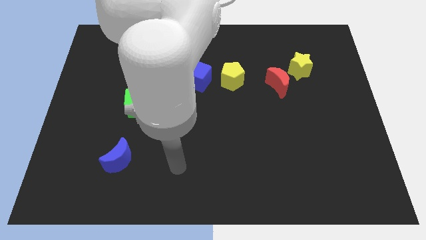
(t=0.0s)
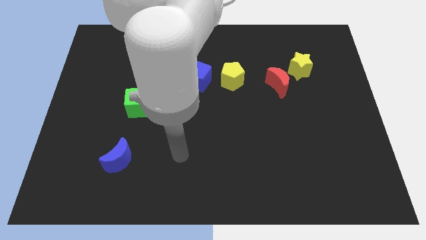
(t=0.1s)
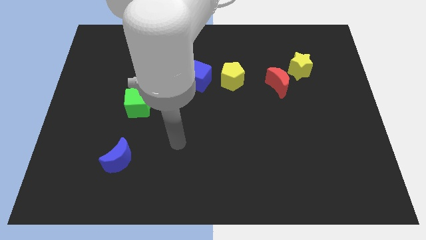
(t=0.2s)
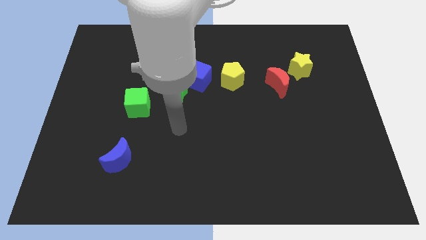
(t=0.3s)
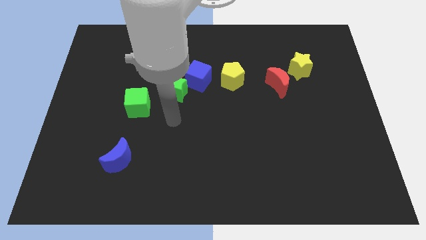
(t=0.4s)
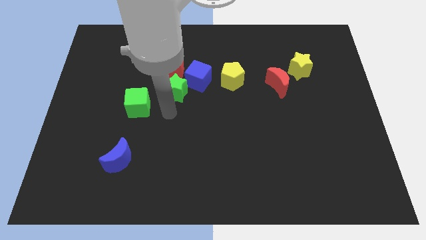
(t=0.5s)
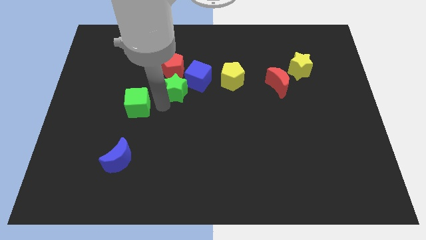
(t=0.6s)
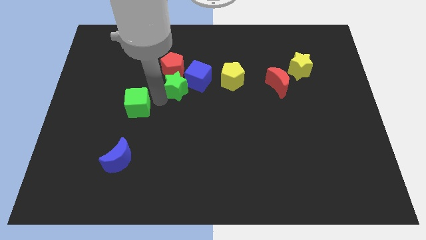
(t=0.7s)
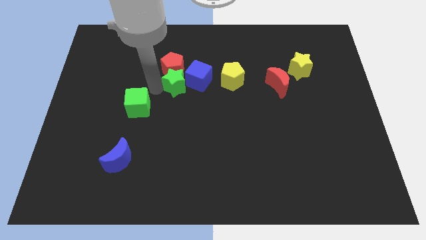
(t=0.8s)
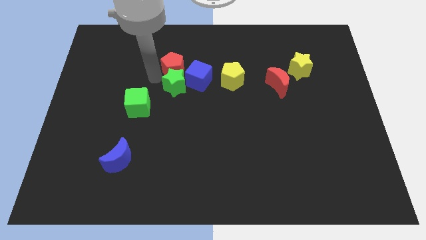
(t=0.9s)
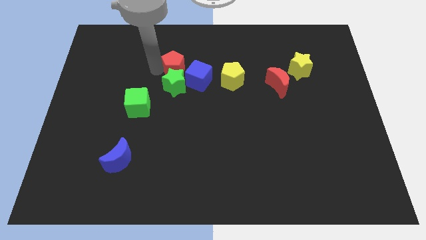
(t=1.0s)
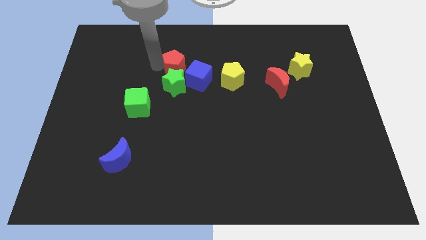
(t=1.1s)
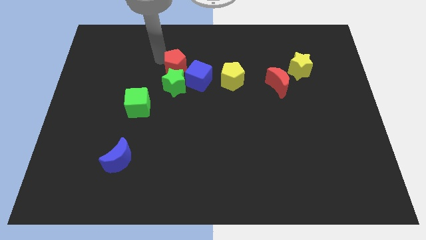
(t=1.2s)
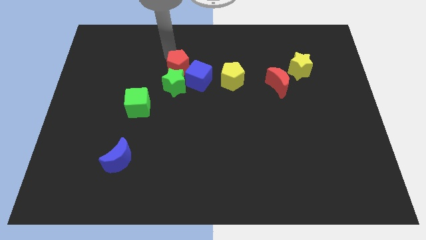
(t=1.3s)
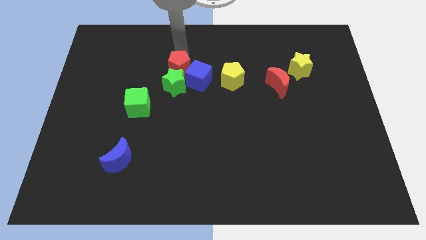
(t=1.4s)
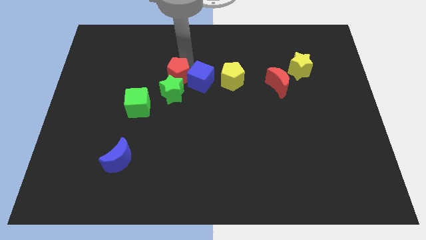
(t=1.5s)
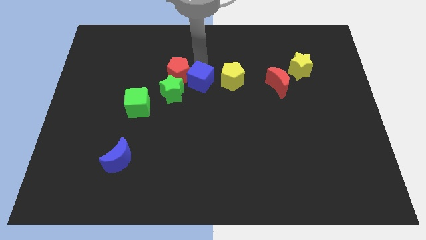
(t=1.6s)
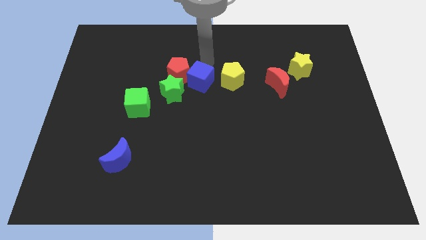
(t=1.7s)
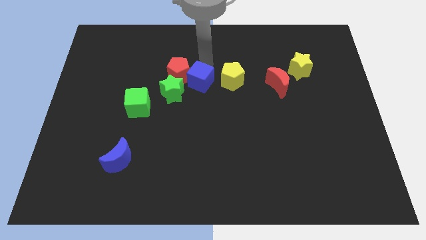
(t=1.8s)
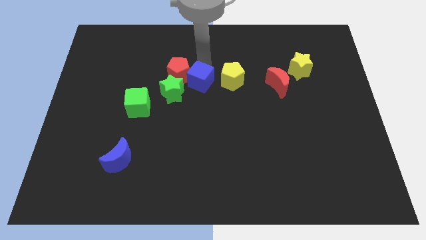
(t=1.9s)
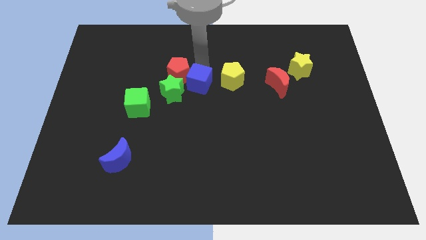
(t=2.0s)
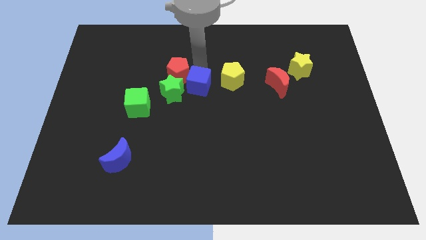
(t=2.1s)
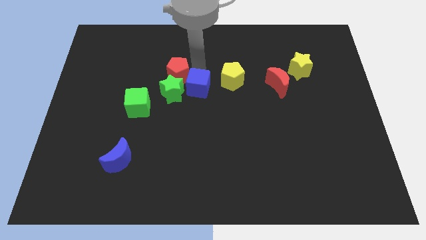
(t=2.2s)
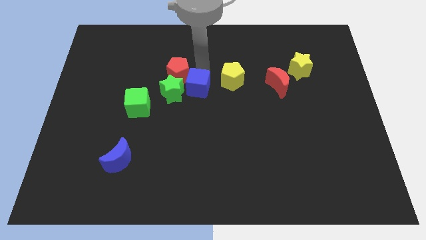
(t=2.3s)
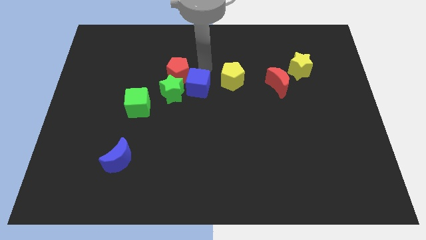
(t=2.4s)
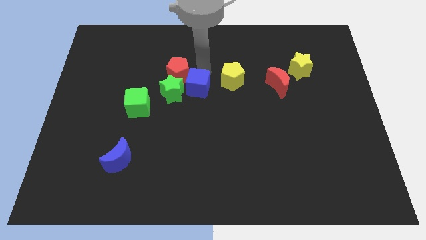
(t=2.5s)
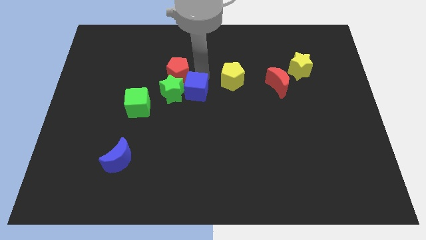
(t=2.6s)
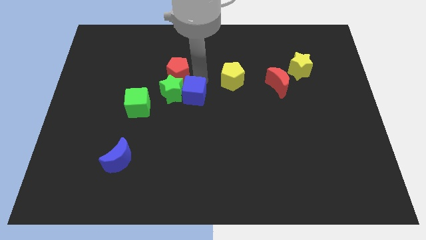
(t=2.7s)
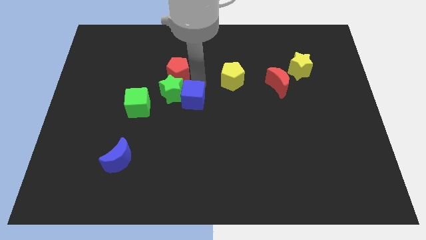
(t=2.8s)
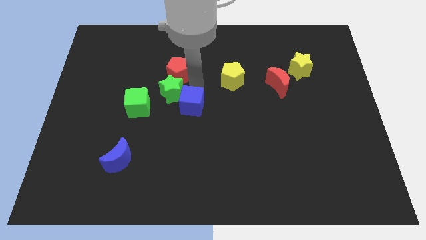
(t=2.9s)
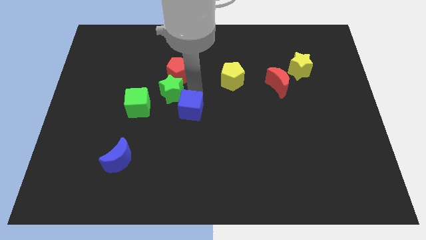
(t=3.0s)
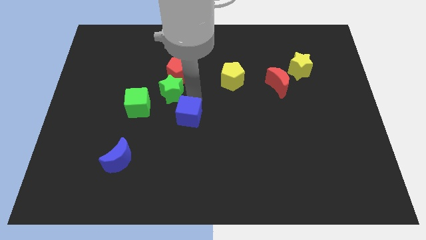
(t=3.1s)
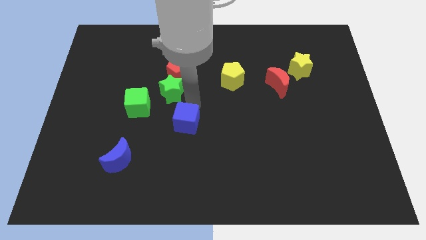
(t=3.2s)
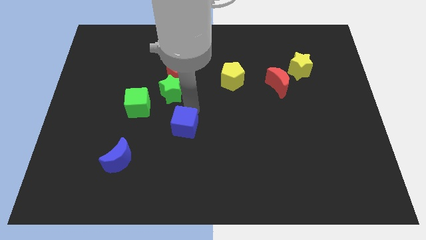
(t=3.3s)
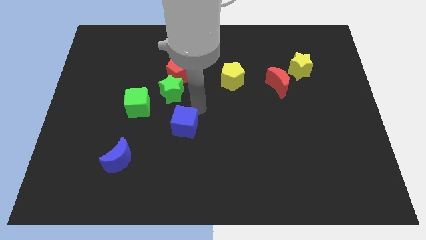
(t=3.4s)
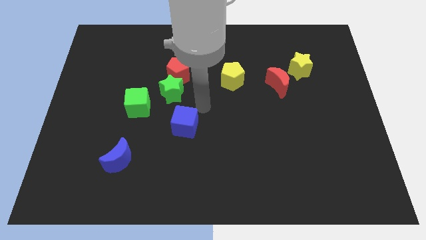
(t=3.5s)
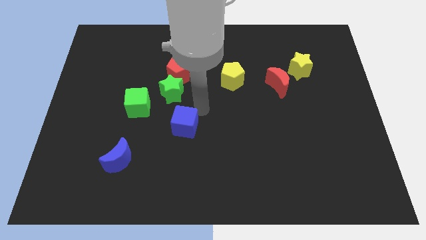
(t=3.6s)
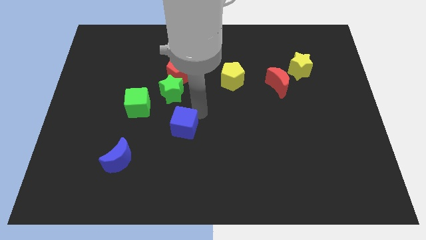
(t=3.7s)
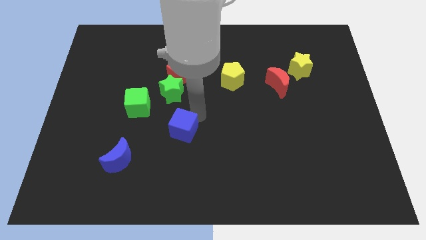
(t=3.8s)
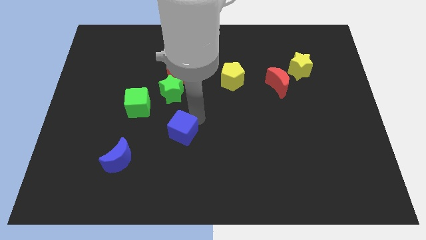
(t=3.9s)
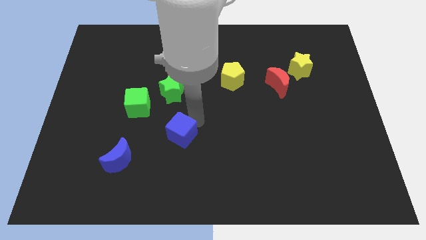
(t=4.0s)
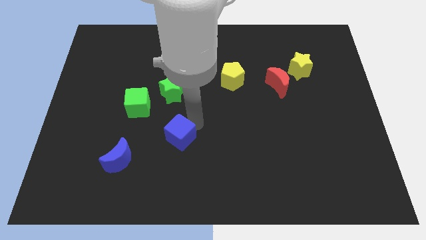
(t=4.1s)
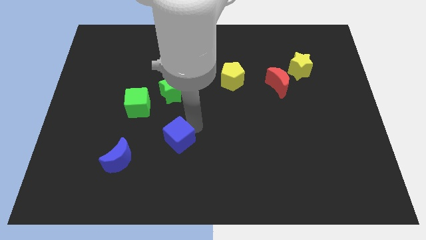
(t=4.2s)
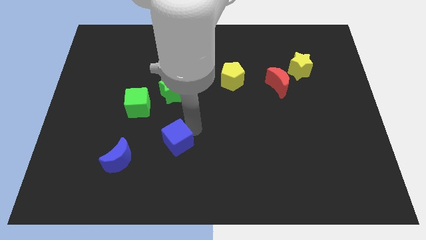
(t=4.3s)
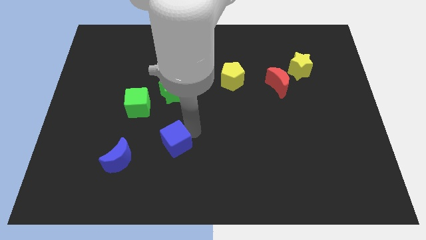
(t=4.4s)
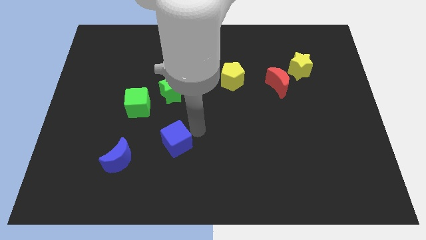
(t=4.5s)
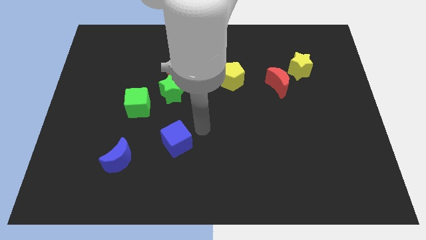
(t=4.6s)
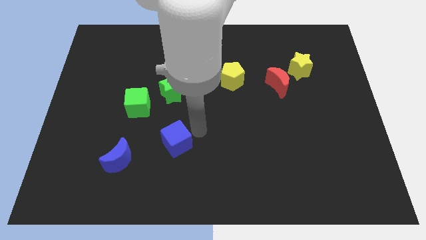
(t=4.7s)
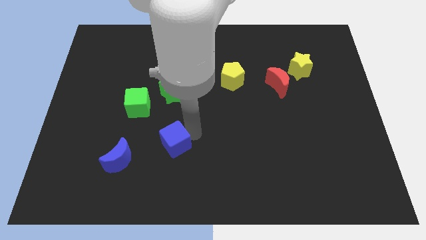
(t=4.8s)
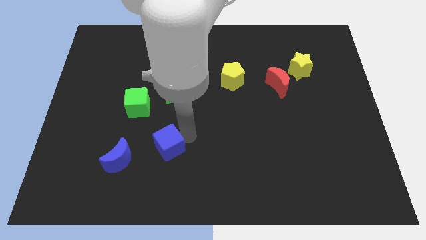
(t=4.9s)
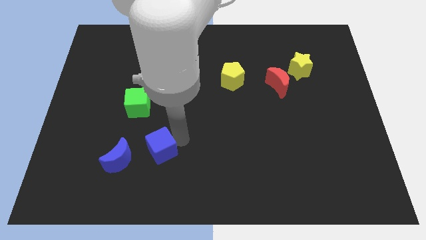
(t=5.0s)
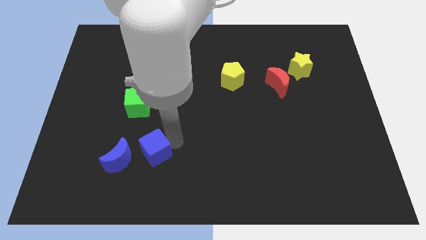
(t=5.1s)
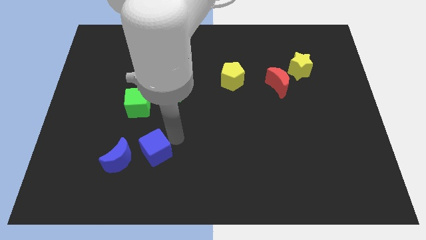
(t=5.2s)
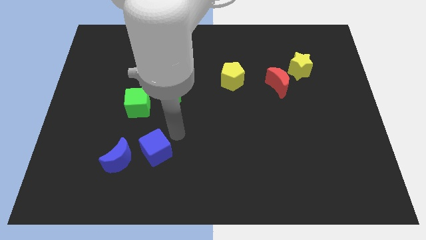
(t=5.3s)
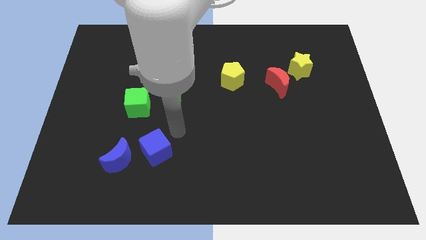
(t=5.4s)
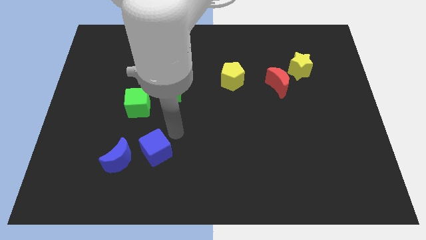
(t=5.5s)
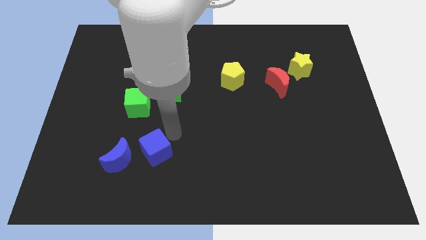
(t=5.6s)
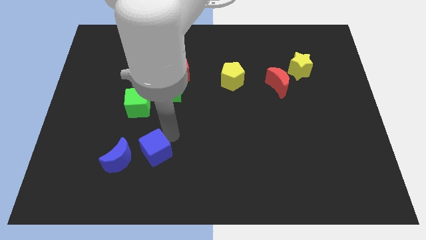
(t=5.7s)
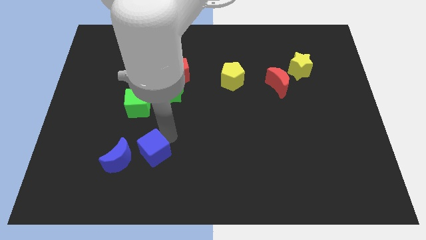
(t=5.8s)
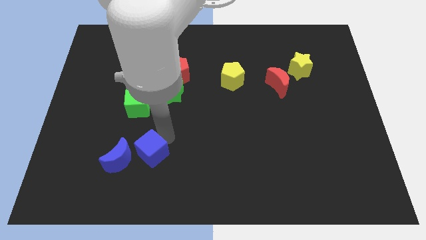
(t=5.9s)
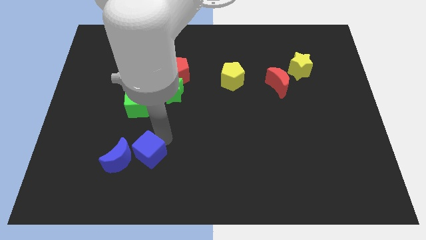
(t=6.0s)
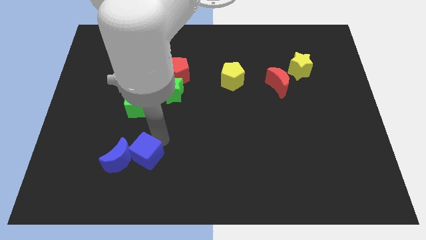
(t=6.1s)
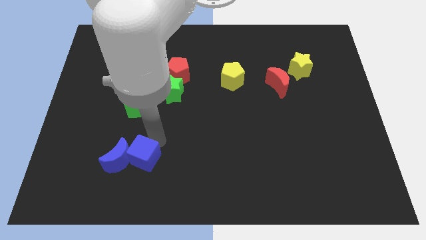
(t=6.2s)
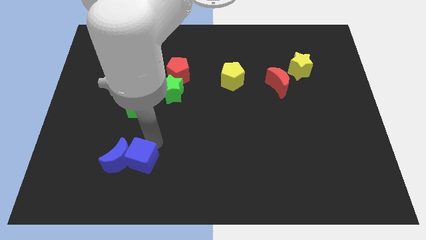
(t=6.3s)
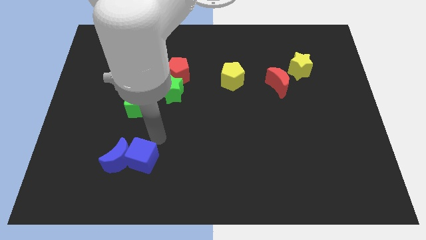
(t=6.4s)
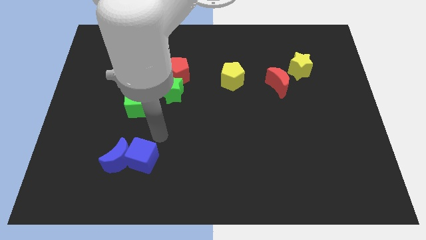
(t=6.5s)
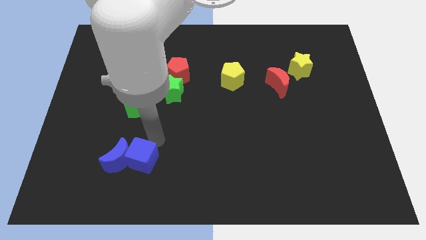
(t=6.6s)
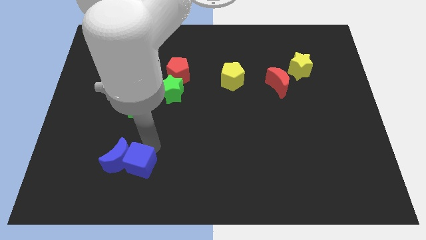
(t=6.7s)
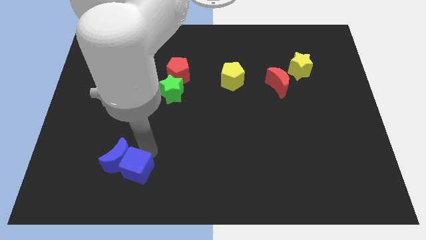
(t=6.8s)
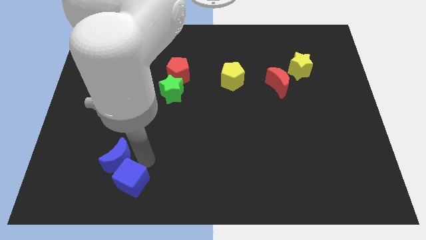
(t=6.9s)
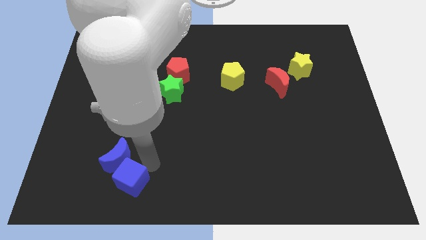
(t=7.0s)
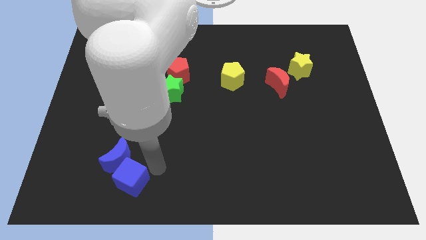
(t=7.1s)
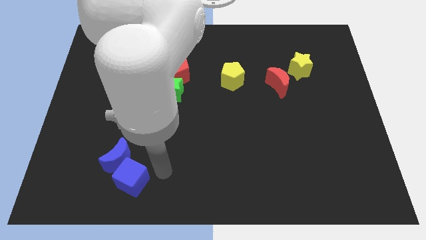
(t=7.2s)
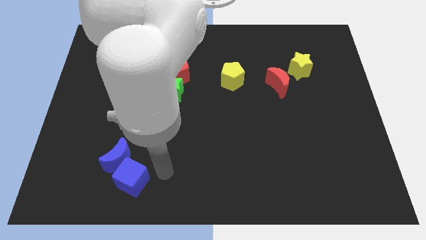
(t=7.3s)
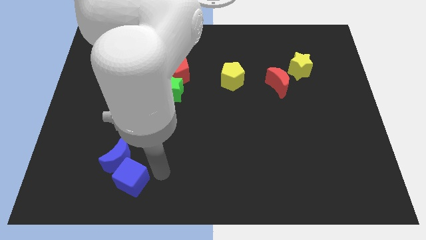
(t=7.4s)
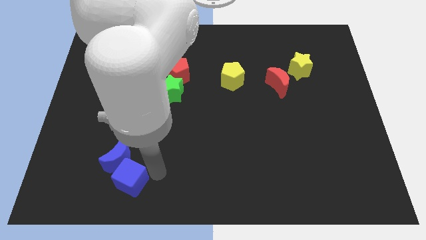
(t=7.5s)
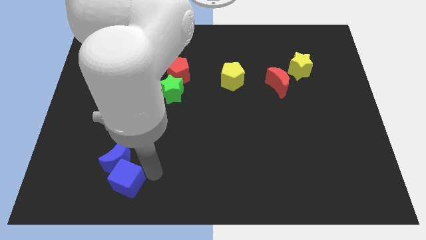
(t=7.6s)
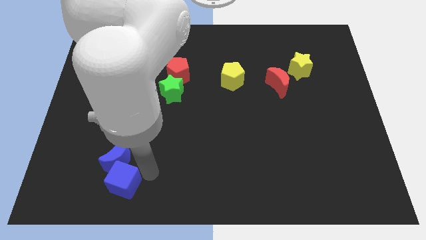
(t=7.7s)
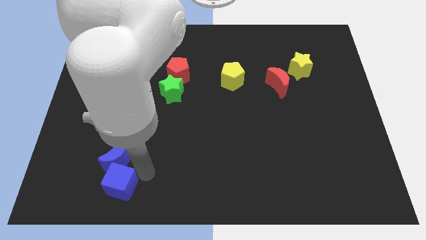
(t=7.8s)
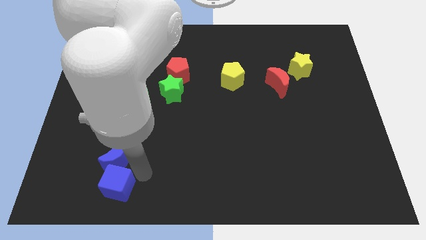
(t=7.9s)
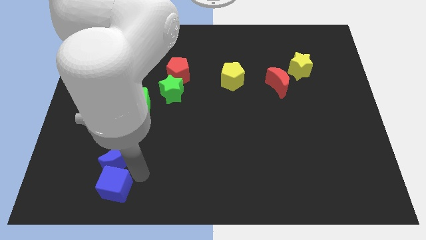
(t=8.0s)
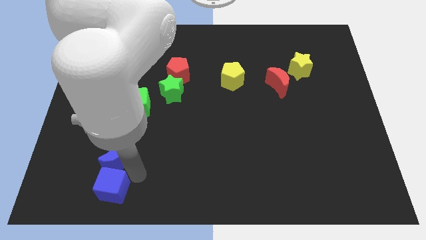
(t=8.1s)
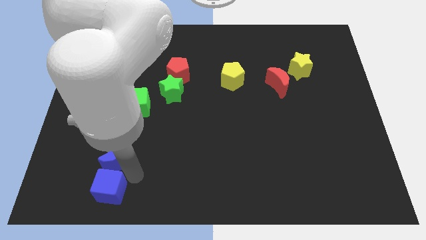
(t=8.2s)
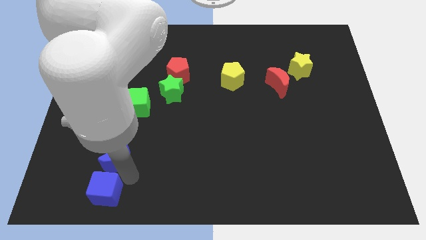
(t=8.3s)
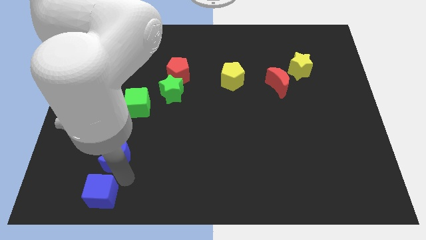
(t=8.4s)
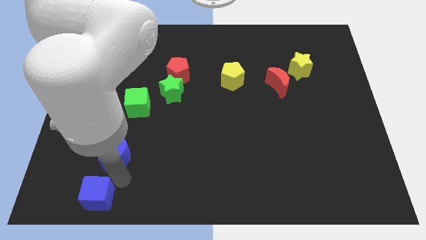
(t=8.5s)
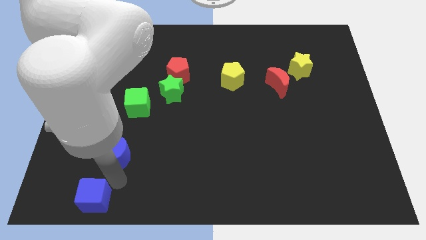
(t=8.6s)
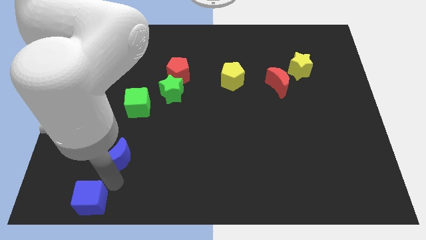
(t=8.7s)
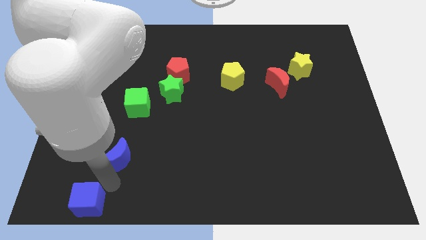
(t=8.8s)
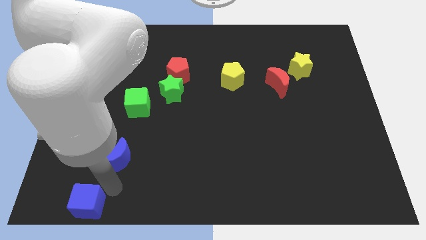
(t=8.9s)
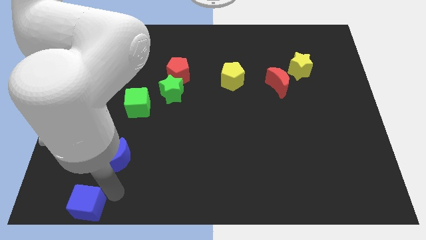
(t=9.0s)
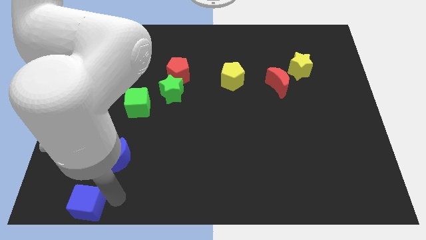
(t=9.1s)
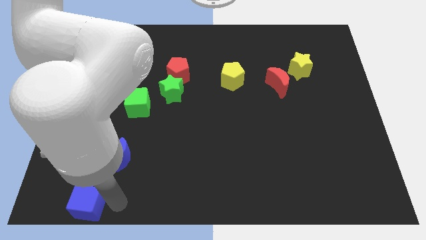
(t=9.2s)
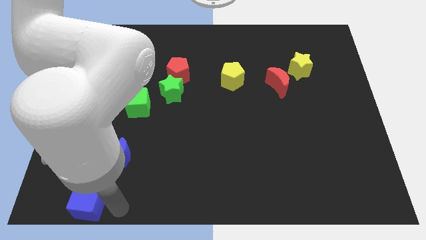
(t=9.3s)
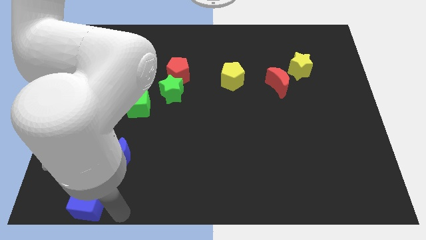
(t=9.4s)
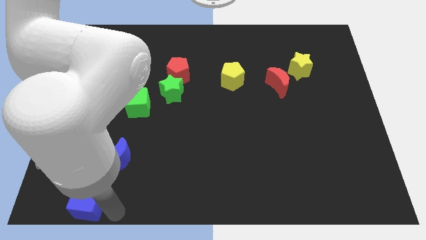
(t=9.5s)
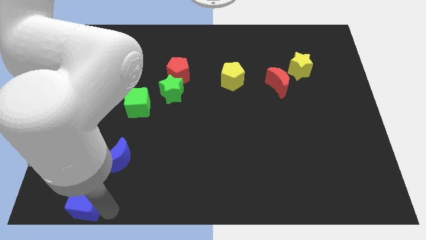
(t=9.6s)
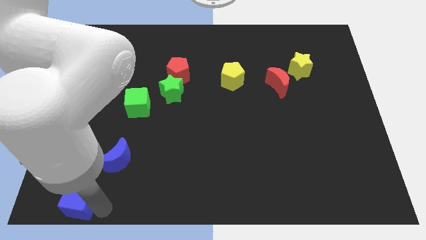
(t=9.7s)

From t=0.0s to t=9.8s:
push the blue cube to the bottom left corner
